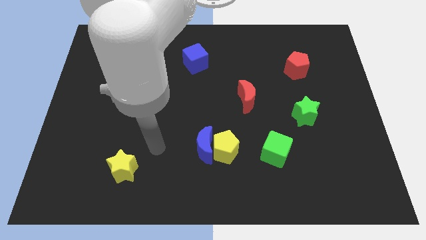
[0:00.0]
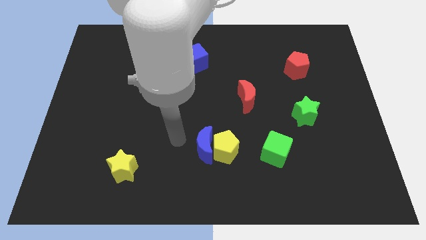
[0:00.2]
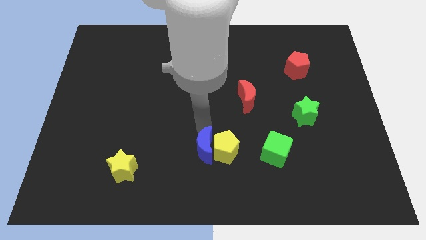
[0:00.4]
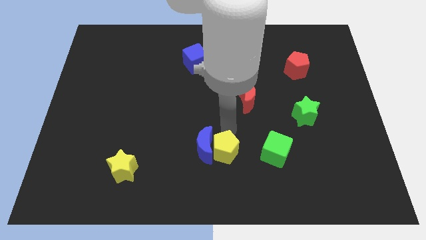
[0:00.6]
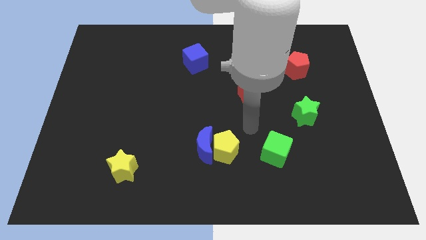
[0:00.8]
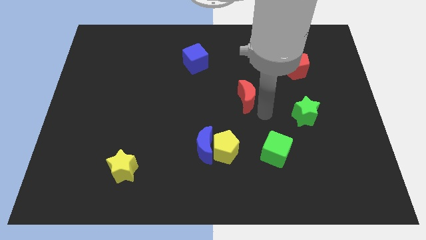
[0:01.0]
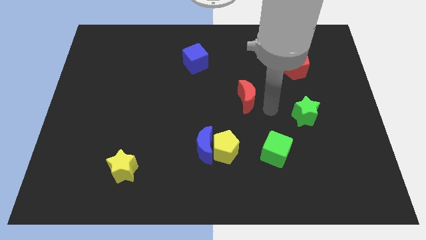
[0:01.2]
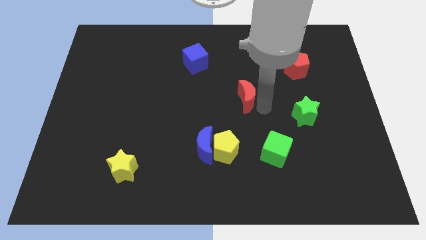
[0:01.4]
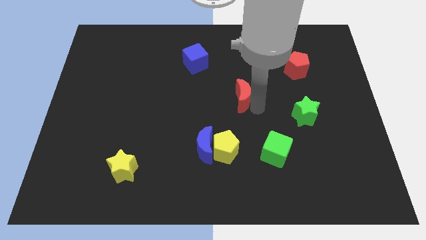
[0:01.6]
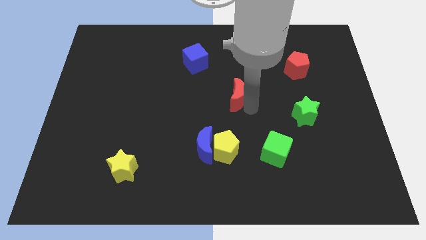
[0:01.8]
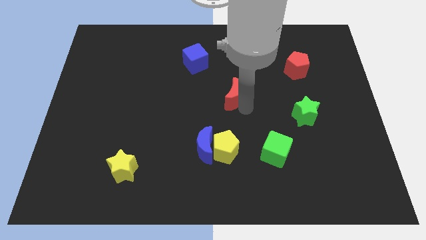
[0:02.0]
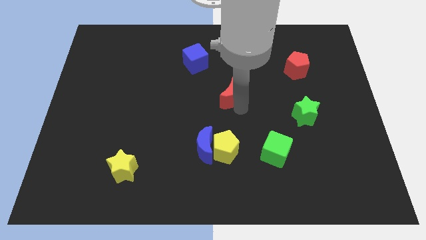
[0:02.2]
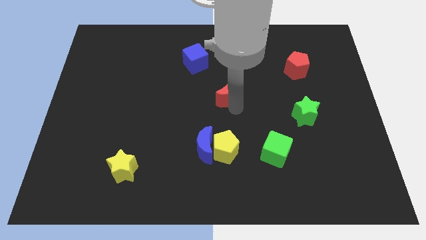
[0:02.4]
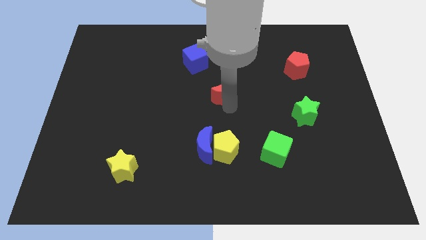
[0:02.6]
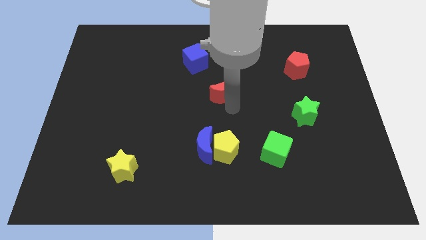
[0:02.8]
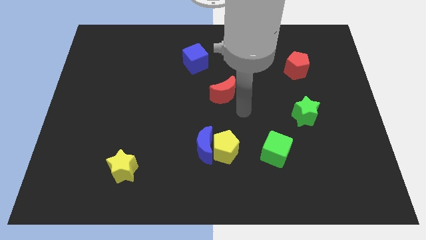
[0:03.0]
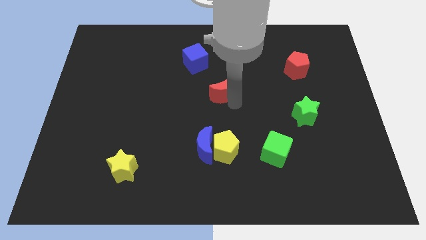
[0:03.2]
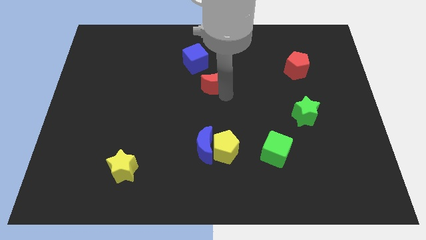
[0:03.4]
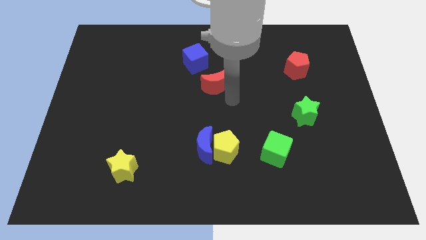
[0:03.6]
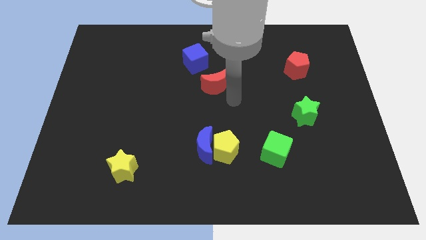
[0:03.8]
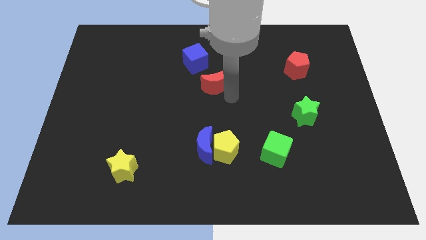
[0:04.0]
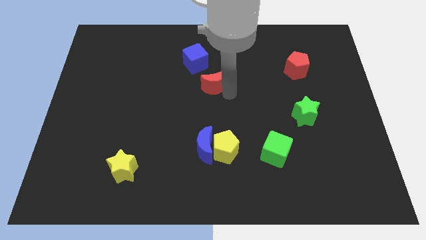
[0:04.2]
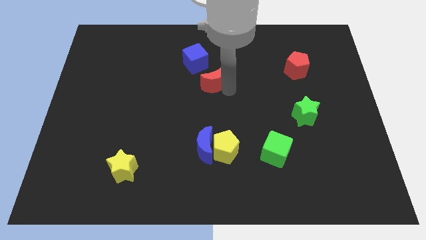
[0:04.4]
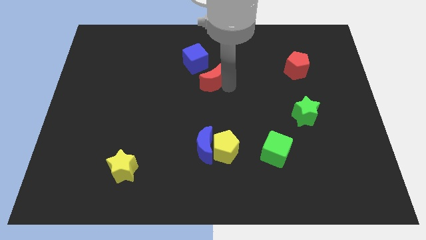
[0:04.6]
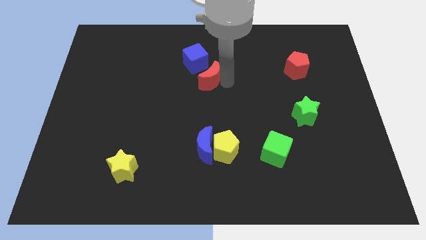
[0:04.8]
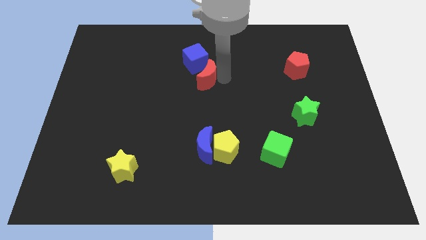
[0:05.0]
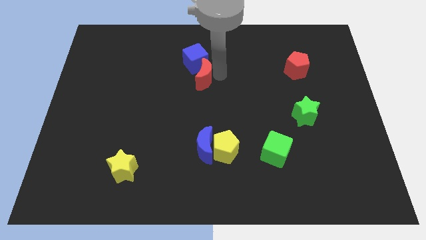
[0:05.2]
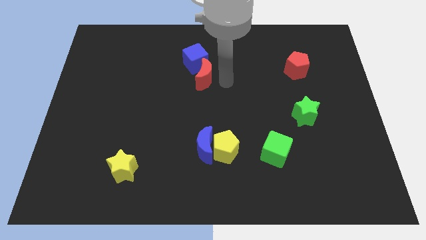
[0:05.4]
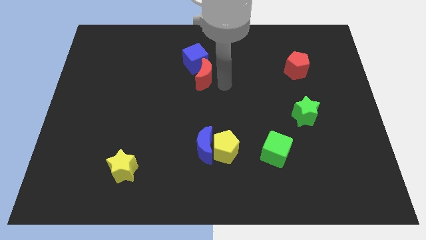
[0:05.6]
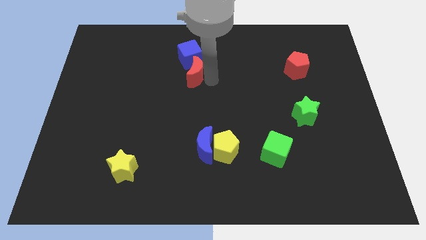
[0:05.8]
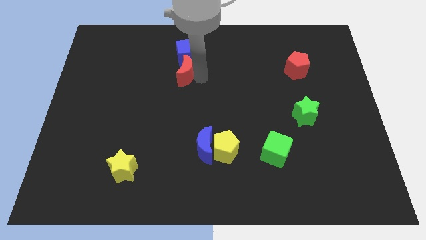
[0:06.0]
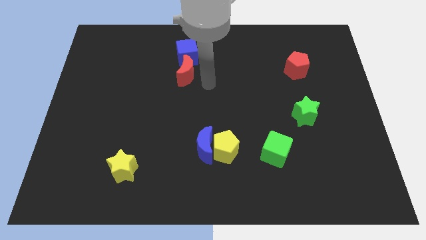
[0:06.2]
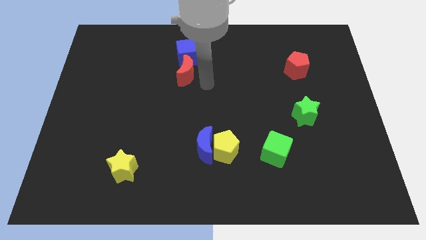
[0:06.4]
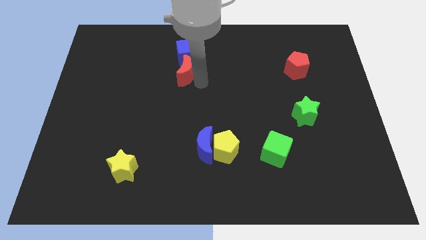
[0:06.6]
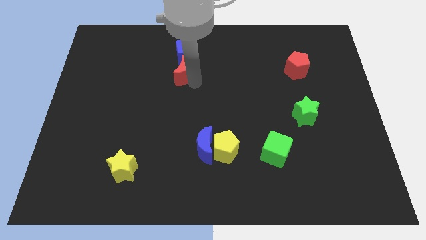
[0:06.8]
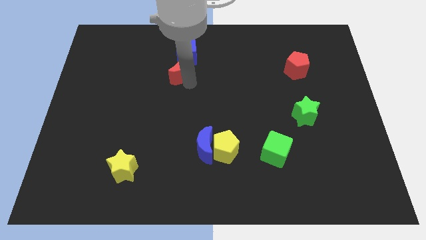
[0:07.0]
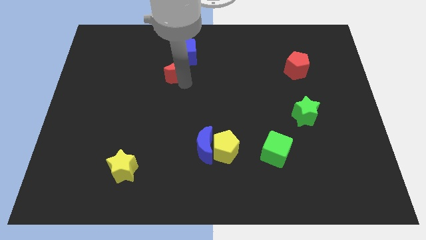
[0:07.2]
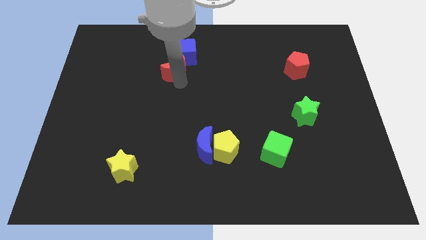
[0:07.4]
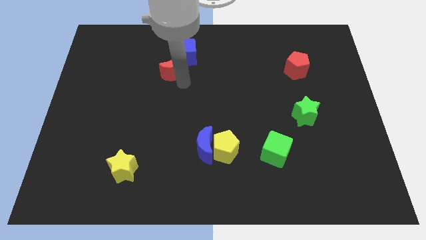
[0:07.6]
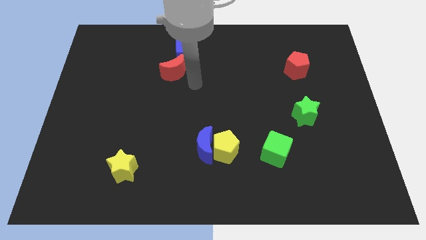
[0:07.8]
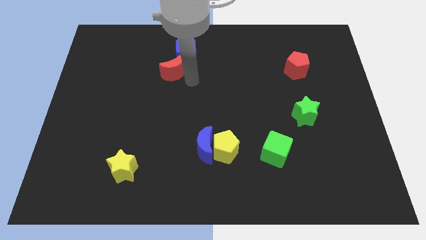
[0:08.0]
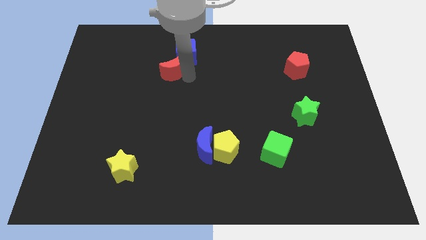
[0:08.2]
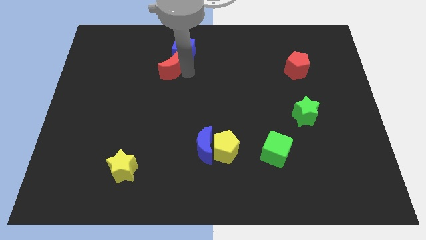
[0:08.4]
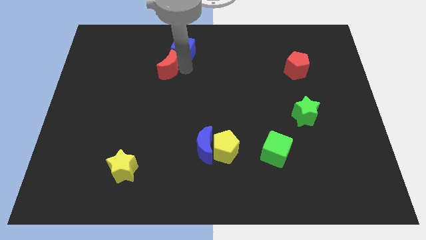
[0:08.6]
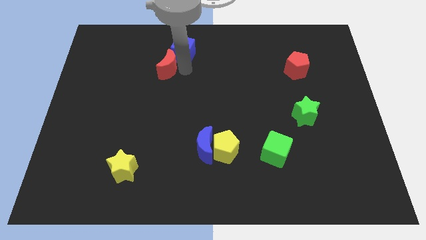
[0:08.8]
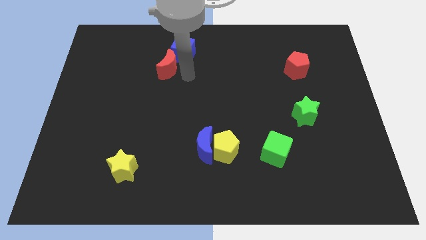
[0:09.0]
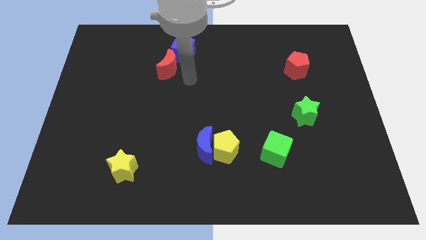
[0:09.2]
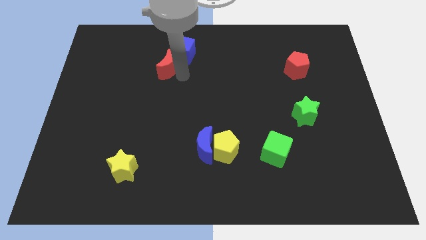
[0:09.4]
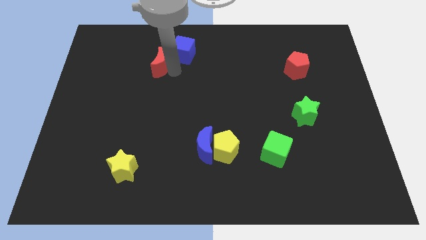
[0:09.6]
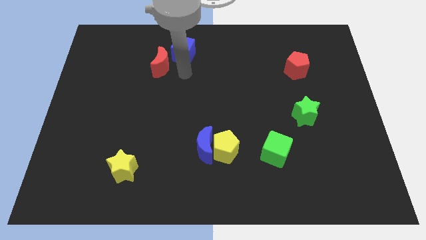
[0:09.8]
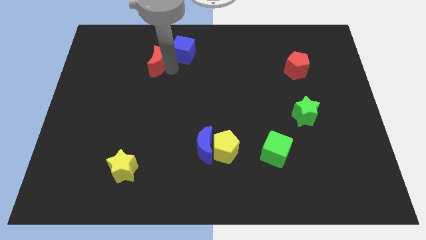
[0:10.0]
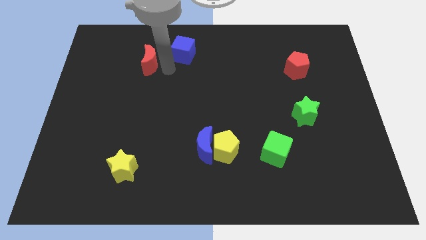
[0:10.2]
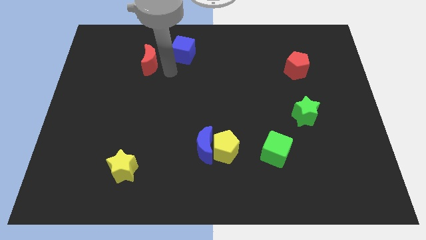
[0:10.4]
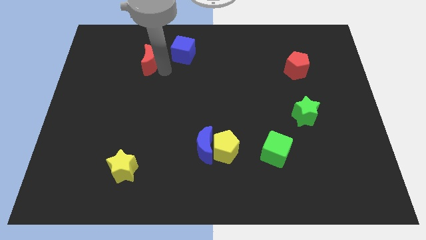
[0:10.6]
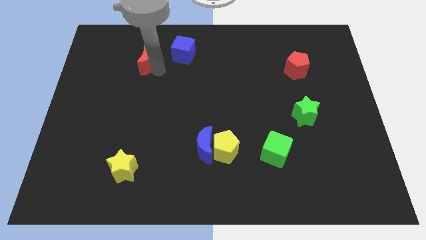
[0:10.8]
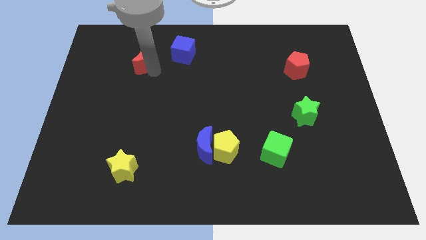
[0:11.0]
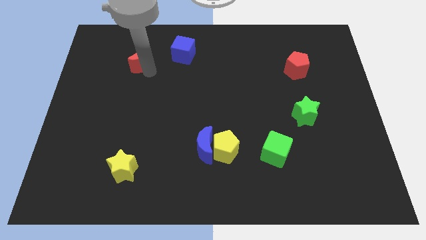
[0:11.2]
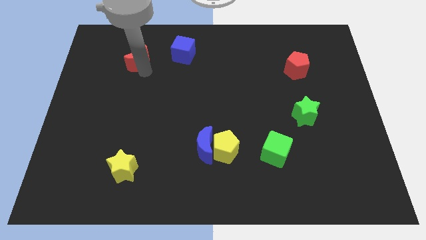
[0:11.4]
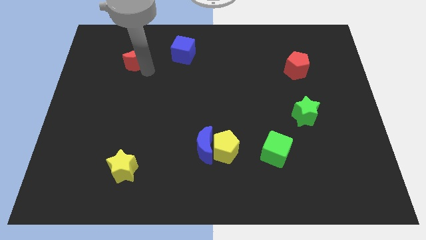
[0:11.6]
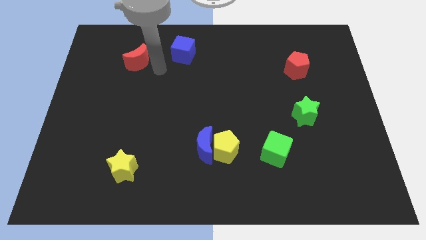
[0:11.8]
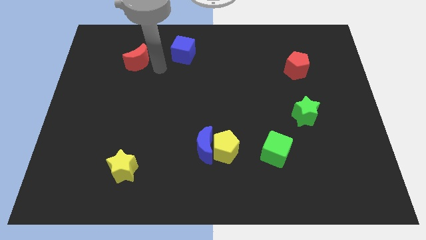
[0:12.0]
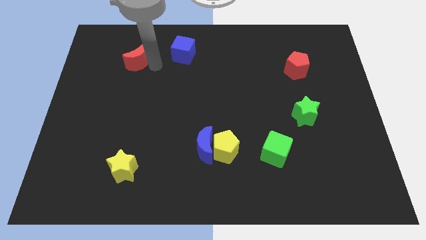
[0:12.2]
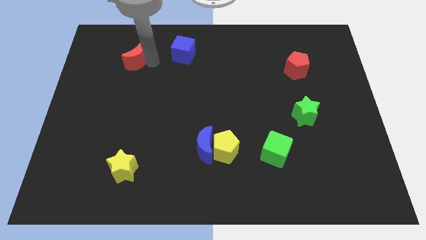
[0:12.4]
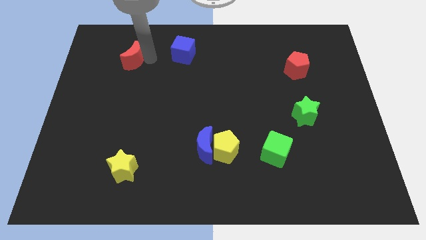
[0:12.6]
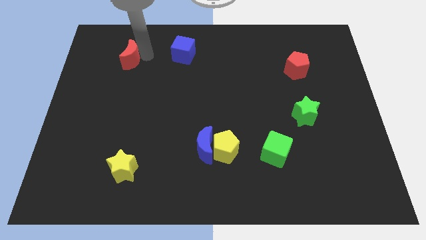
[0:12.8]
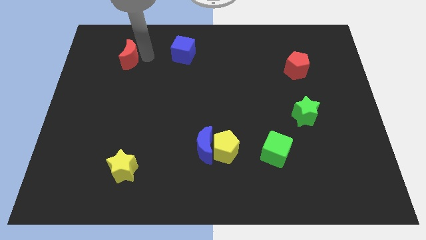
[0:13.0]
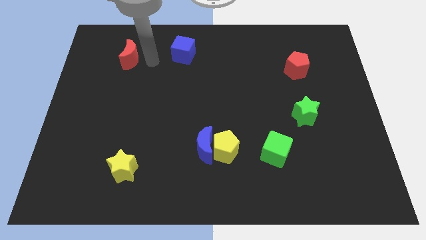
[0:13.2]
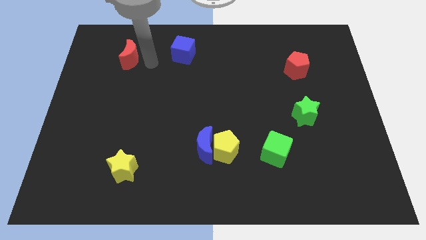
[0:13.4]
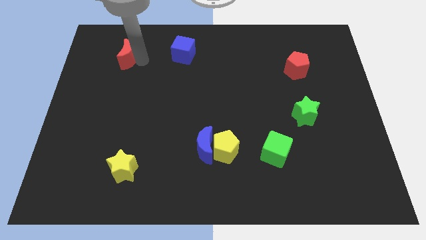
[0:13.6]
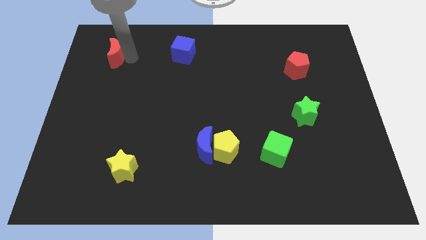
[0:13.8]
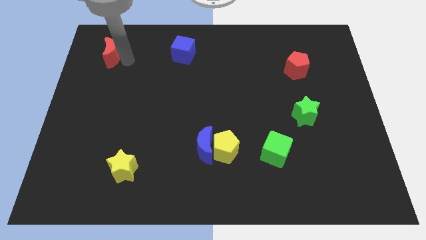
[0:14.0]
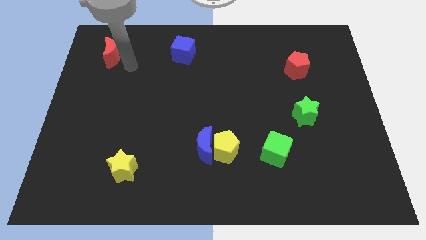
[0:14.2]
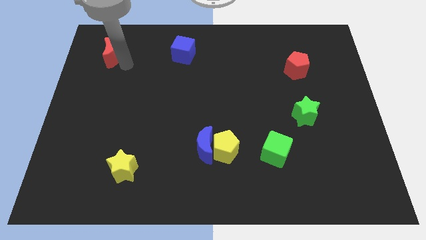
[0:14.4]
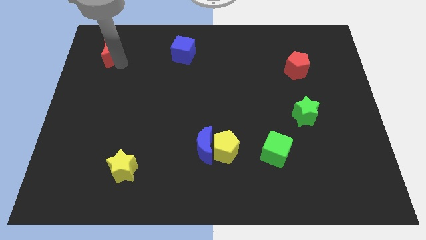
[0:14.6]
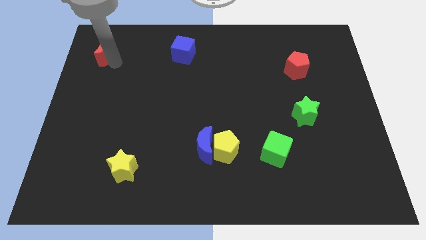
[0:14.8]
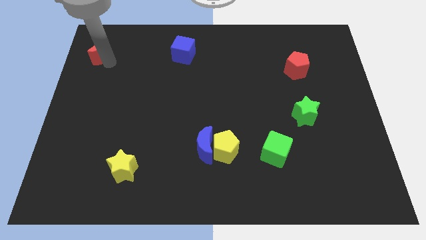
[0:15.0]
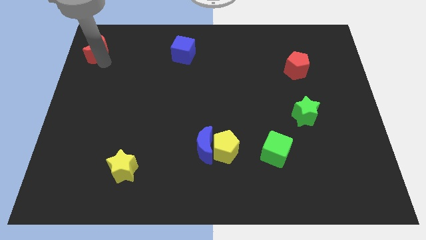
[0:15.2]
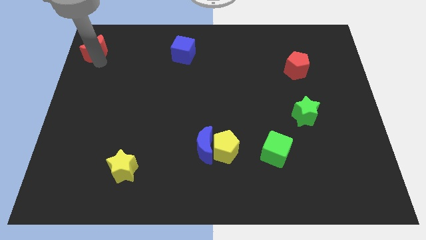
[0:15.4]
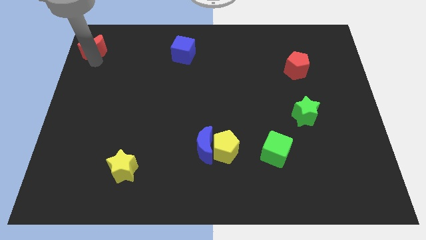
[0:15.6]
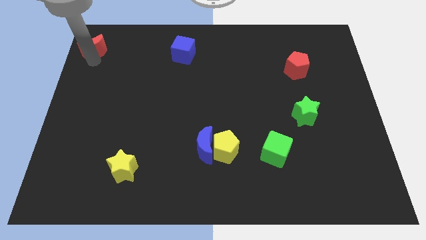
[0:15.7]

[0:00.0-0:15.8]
move the red moon to the top left
